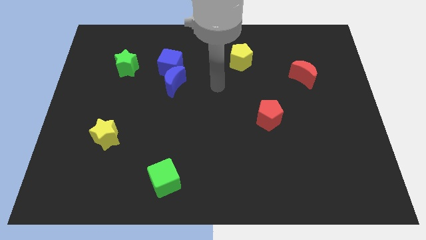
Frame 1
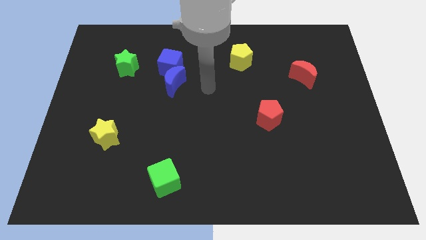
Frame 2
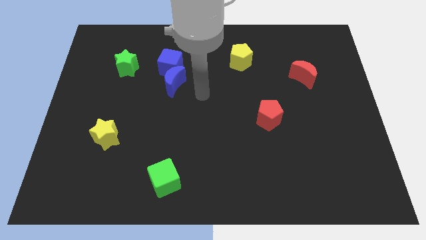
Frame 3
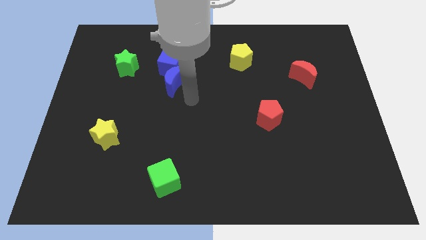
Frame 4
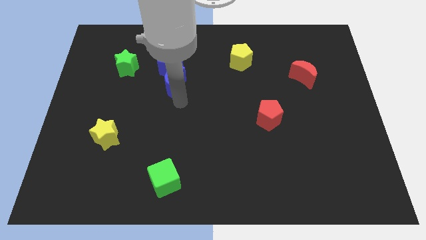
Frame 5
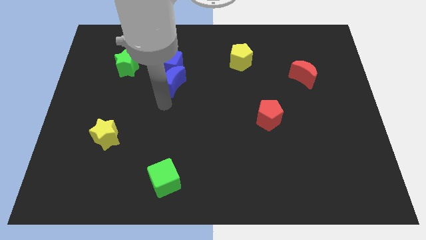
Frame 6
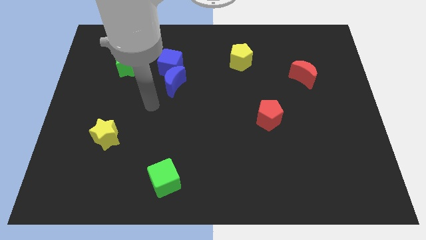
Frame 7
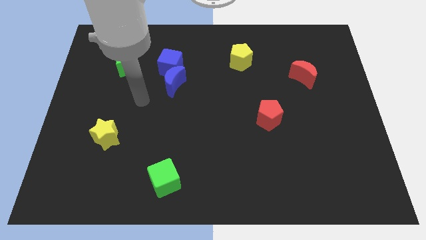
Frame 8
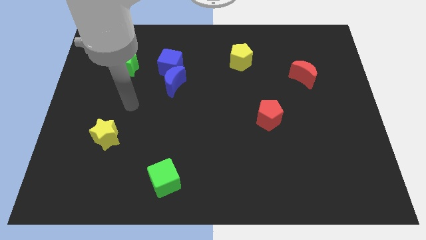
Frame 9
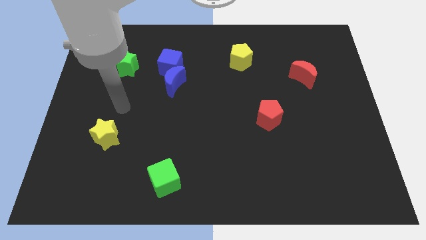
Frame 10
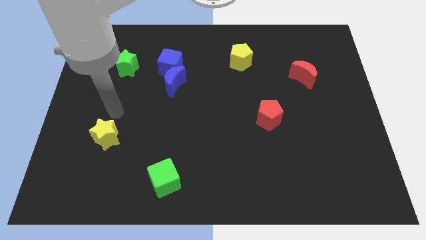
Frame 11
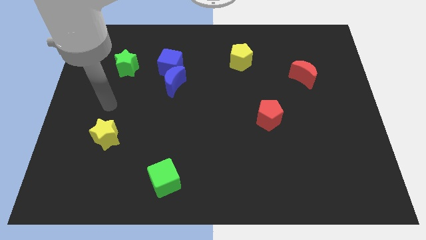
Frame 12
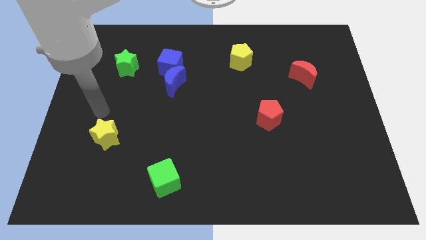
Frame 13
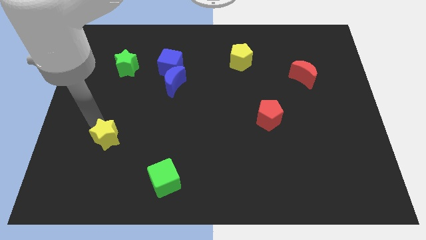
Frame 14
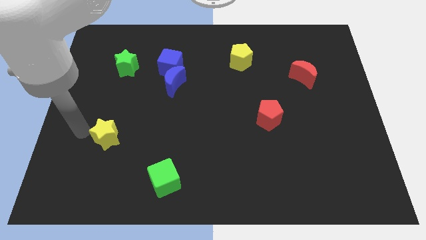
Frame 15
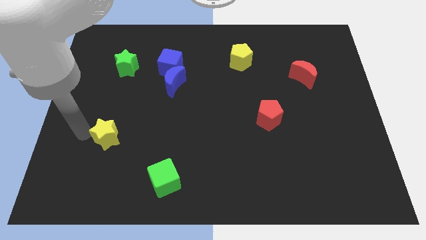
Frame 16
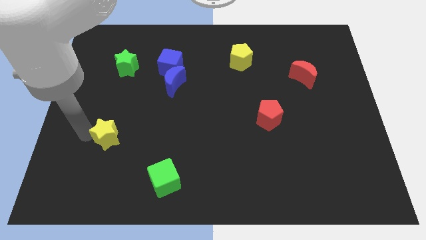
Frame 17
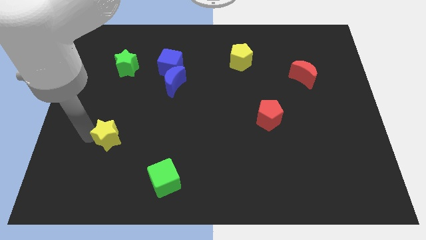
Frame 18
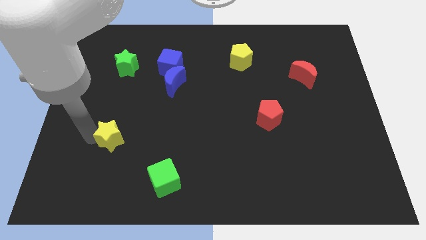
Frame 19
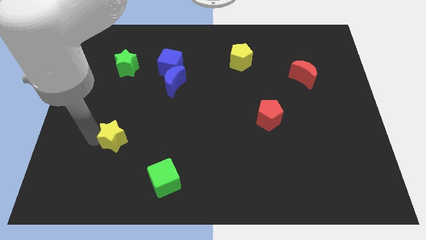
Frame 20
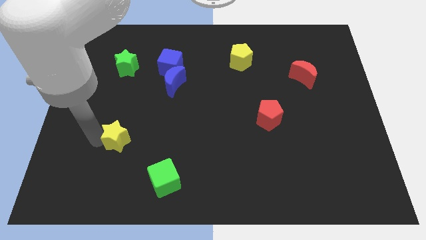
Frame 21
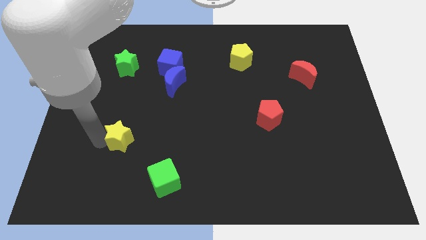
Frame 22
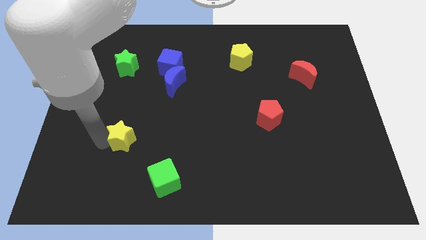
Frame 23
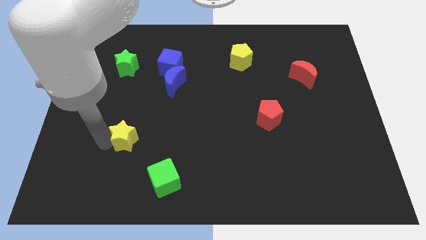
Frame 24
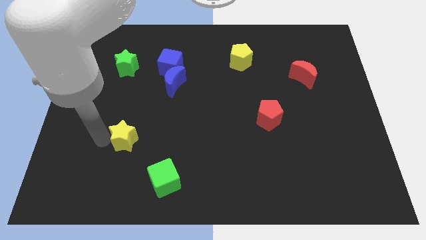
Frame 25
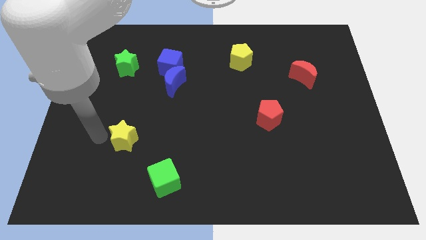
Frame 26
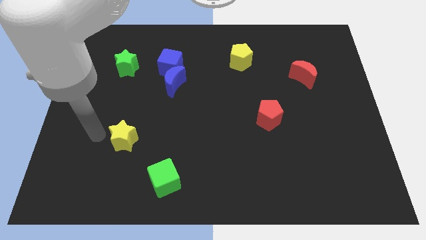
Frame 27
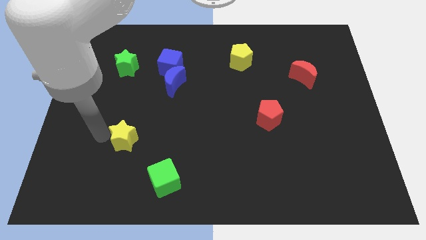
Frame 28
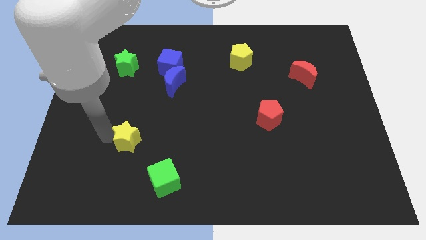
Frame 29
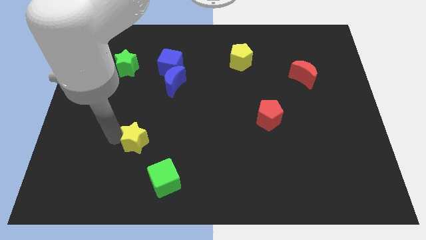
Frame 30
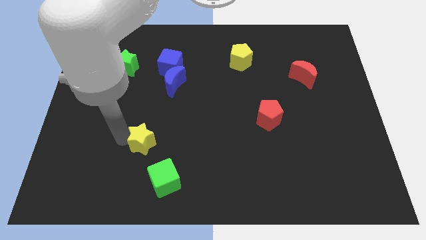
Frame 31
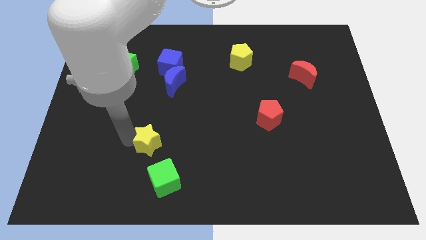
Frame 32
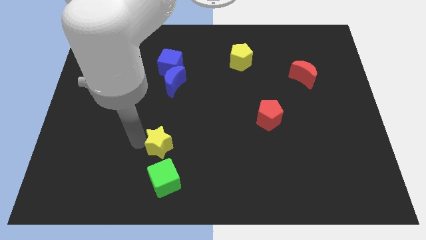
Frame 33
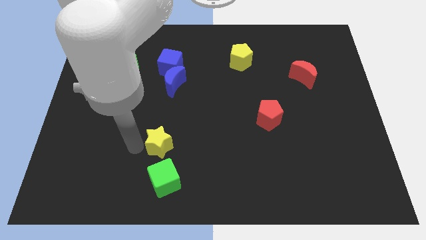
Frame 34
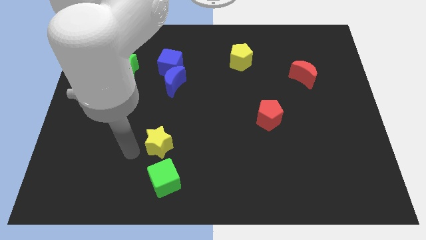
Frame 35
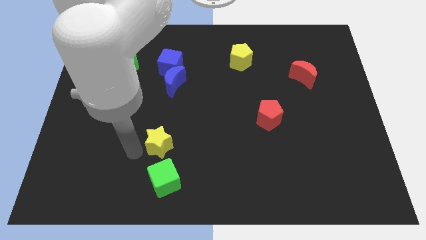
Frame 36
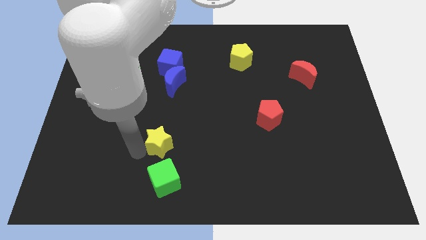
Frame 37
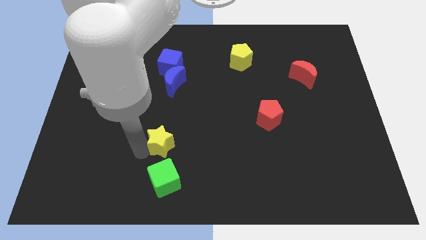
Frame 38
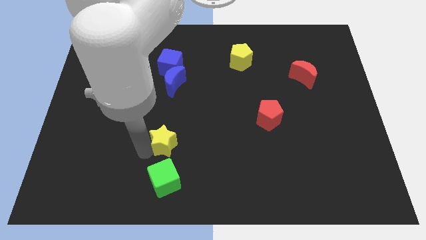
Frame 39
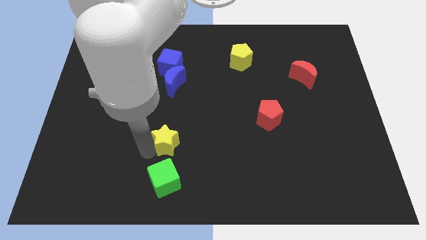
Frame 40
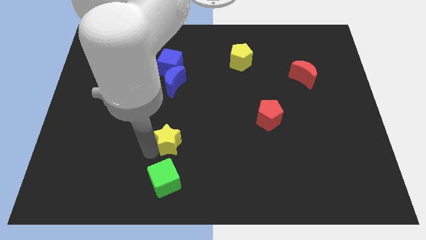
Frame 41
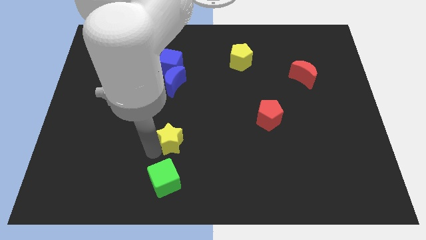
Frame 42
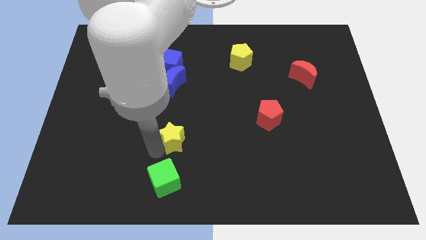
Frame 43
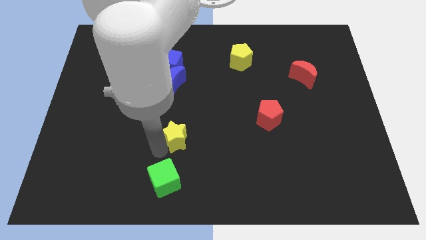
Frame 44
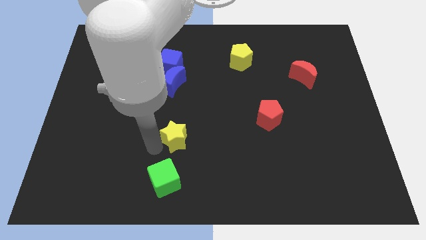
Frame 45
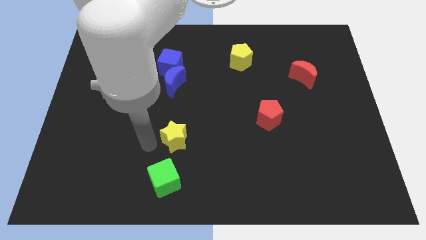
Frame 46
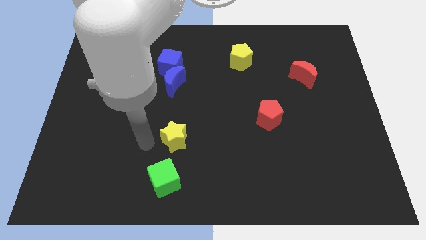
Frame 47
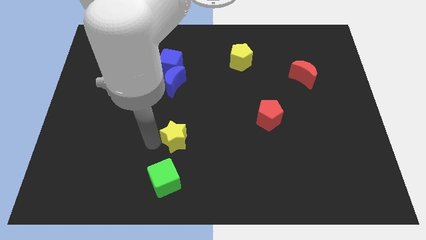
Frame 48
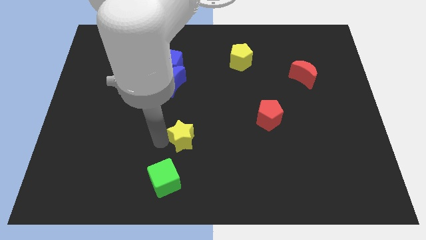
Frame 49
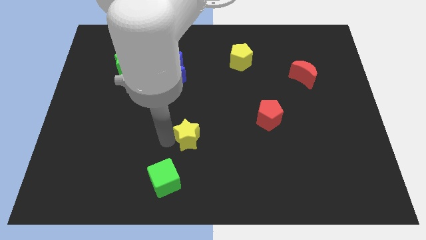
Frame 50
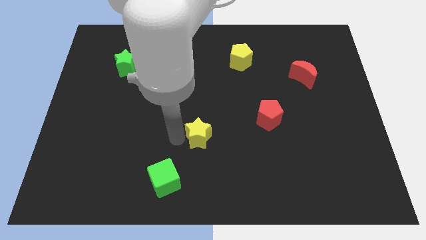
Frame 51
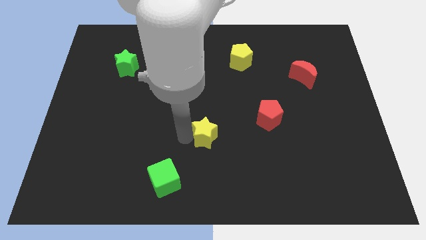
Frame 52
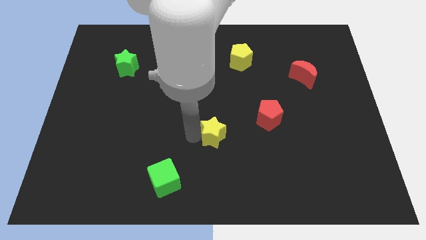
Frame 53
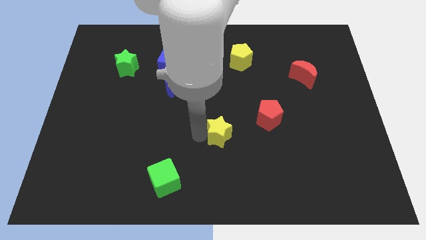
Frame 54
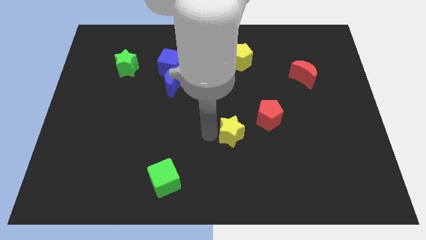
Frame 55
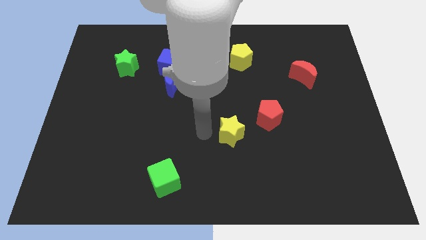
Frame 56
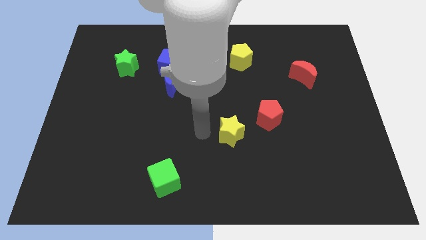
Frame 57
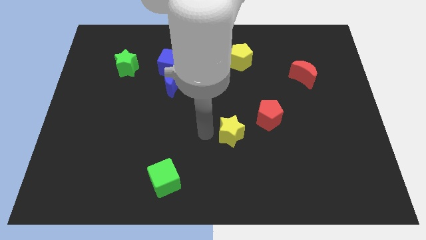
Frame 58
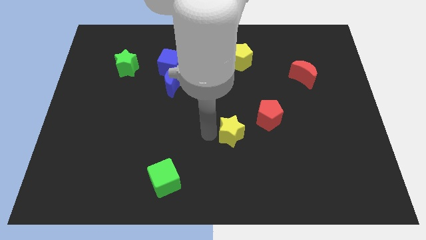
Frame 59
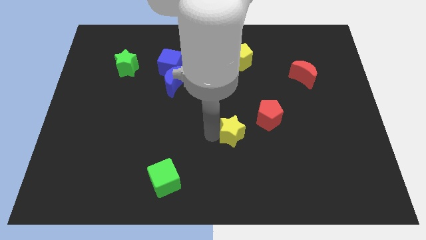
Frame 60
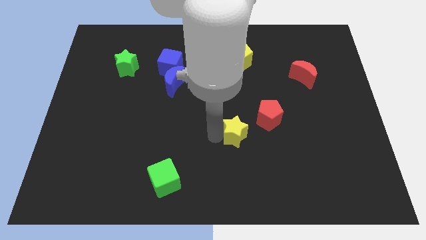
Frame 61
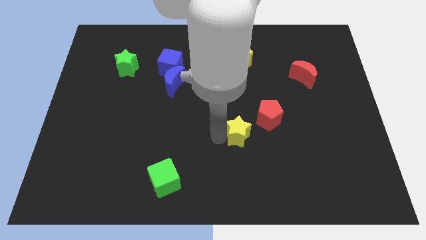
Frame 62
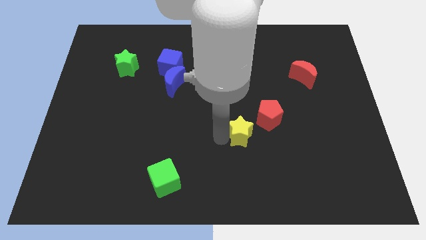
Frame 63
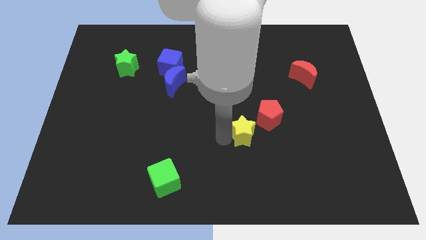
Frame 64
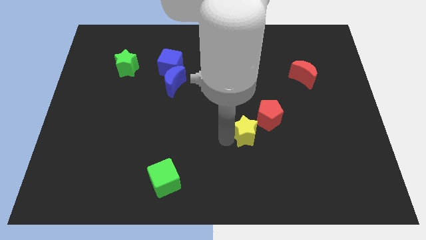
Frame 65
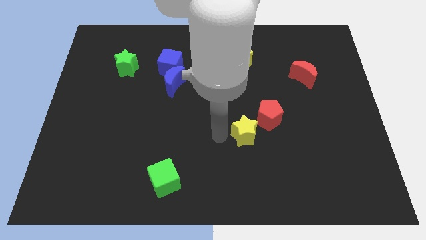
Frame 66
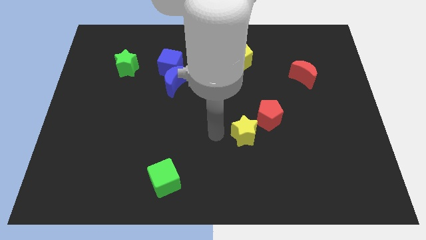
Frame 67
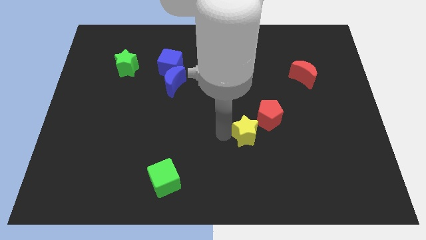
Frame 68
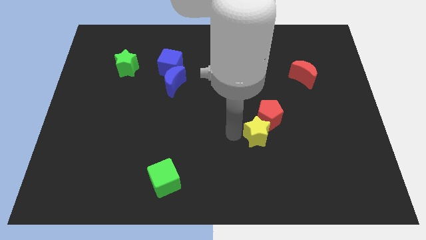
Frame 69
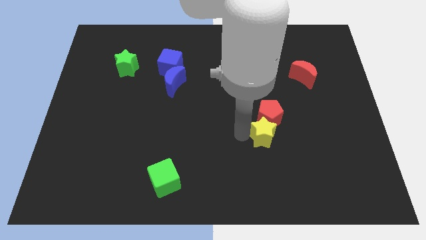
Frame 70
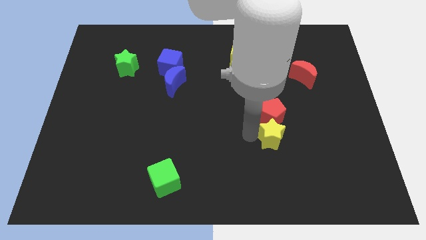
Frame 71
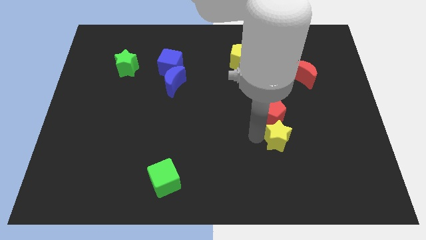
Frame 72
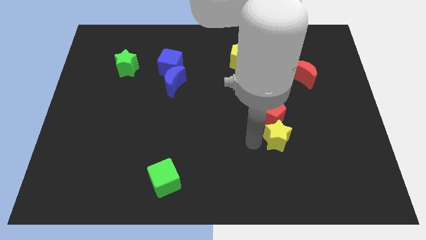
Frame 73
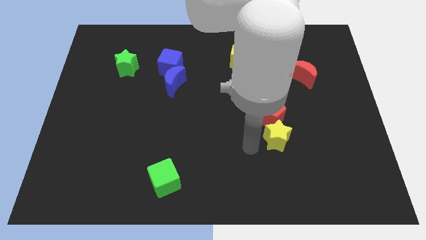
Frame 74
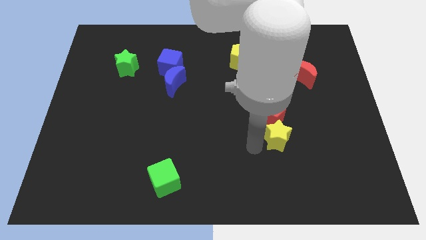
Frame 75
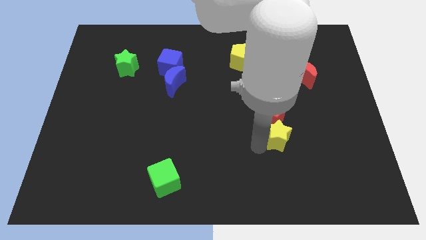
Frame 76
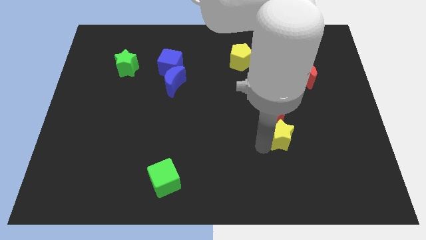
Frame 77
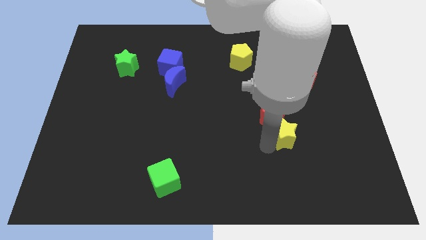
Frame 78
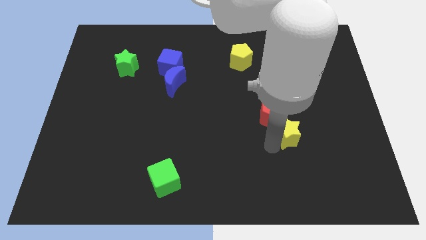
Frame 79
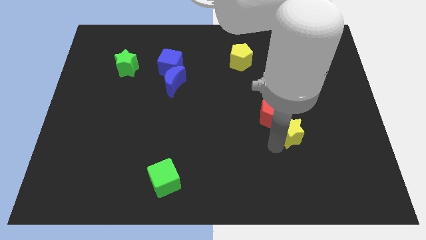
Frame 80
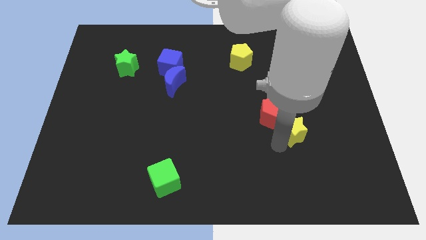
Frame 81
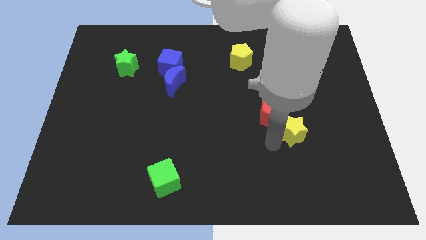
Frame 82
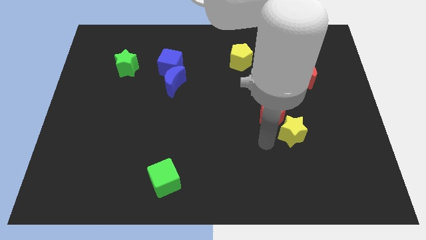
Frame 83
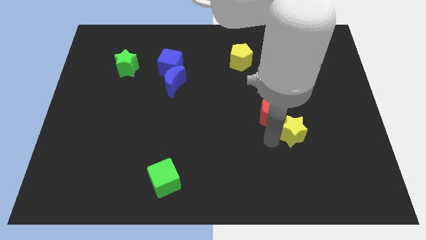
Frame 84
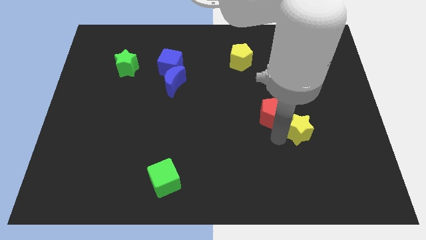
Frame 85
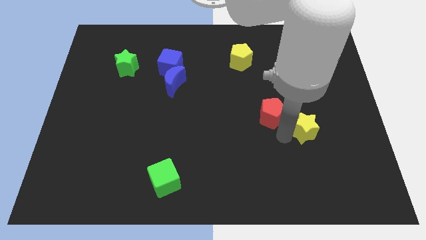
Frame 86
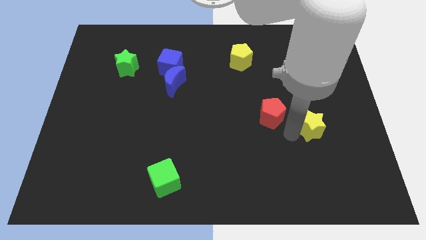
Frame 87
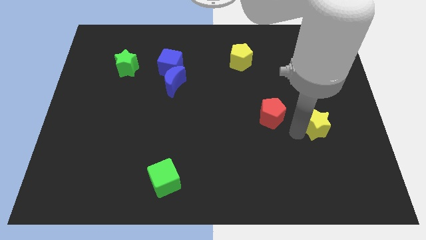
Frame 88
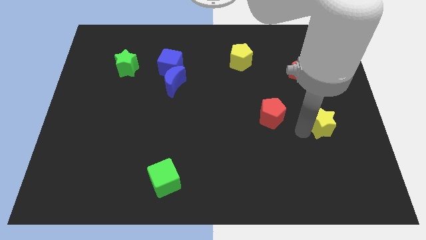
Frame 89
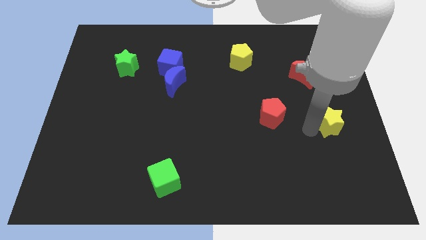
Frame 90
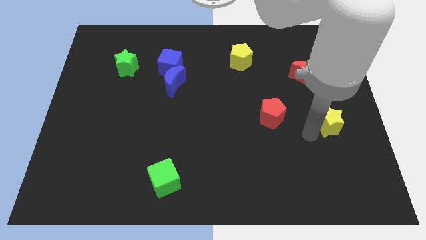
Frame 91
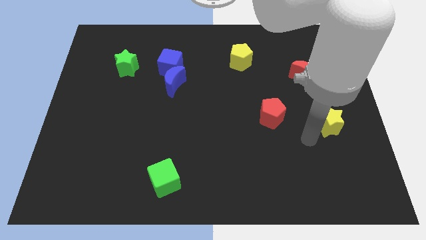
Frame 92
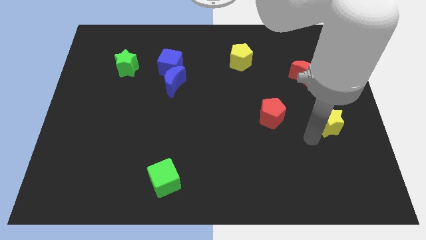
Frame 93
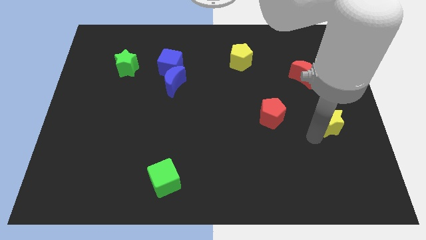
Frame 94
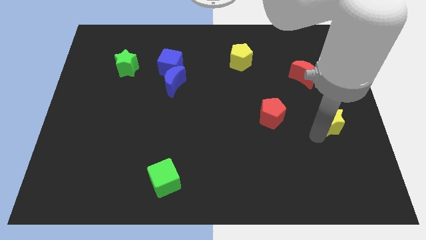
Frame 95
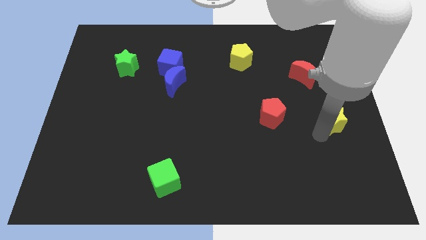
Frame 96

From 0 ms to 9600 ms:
push the yellow star to the center right
